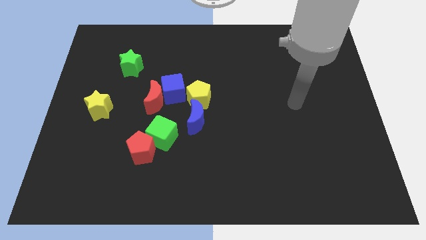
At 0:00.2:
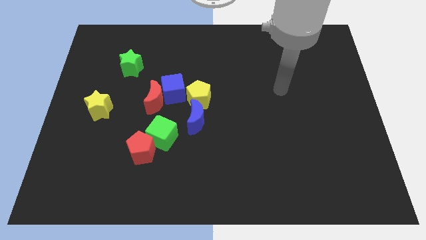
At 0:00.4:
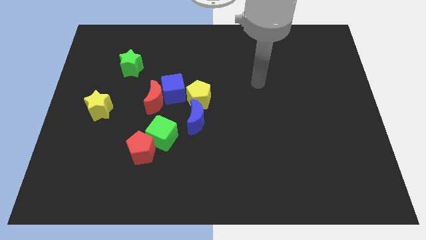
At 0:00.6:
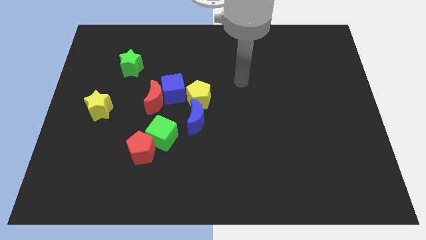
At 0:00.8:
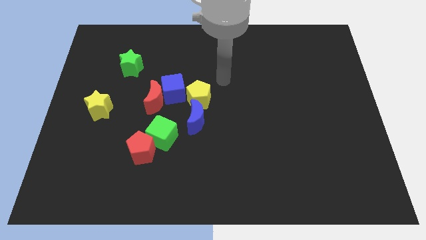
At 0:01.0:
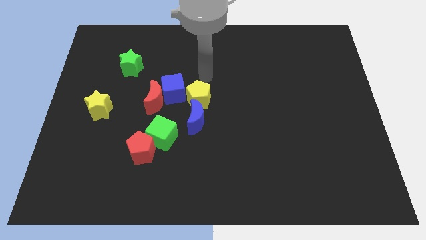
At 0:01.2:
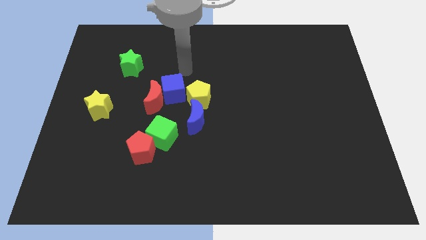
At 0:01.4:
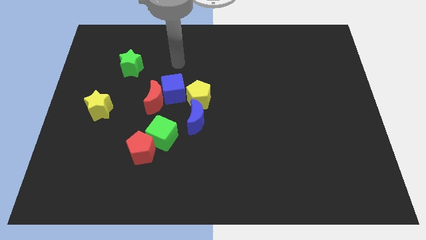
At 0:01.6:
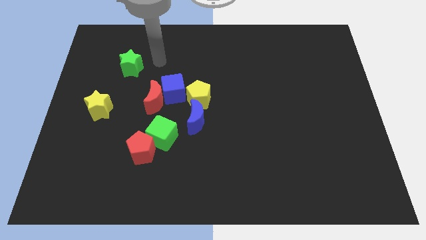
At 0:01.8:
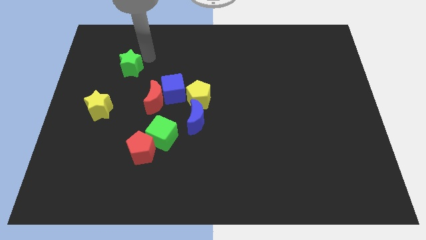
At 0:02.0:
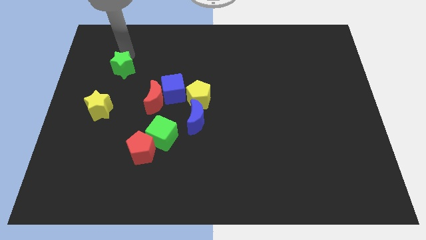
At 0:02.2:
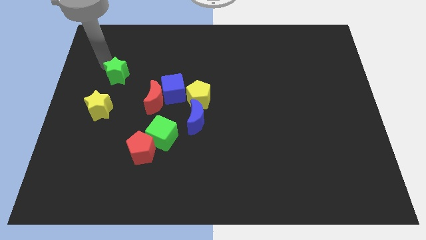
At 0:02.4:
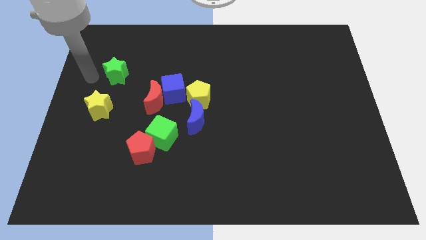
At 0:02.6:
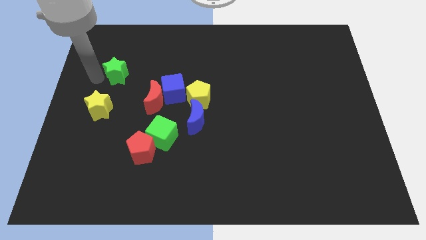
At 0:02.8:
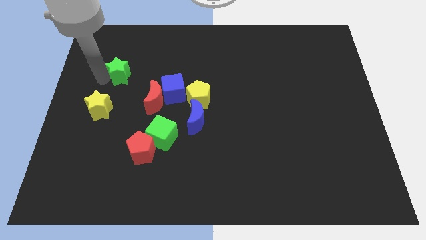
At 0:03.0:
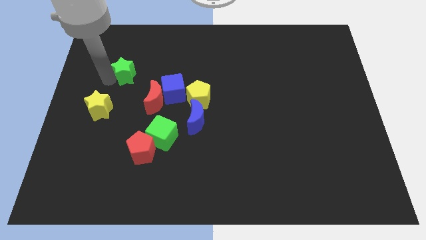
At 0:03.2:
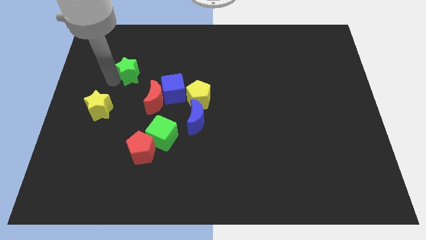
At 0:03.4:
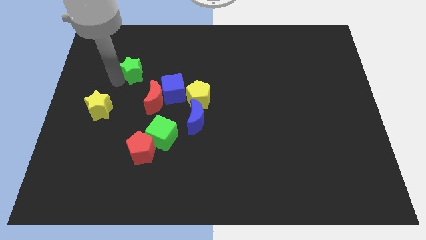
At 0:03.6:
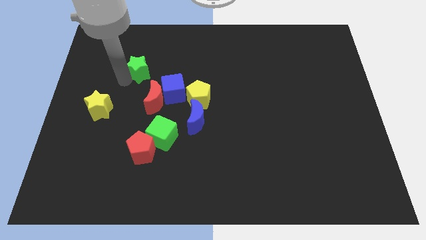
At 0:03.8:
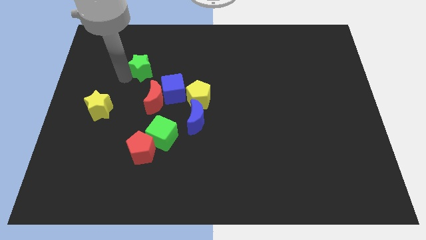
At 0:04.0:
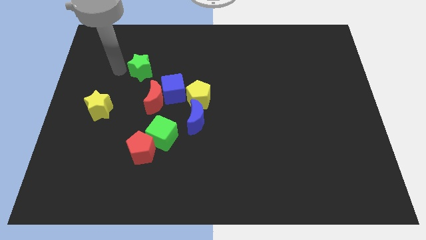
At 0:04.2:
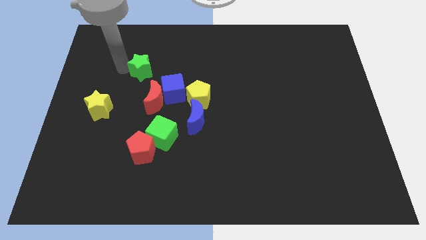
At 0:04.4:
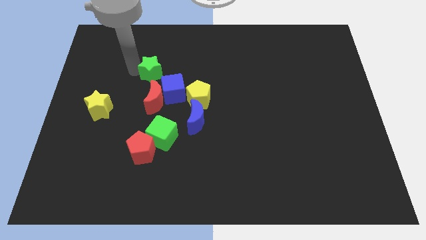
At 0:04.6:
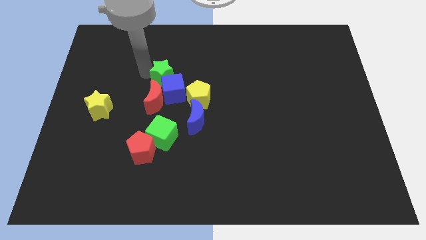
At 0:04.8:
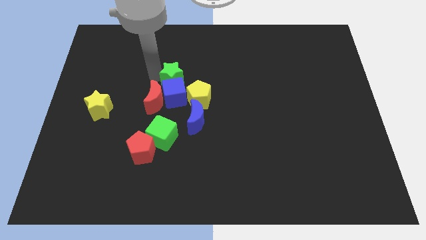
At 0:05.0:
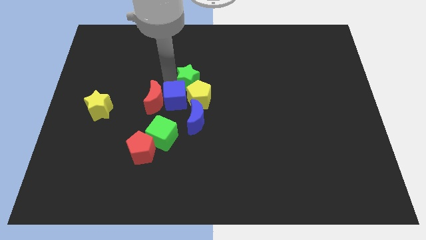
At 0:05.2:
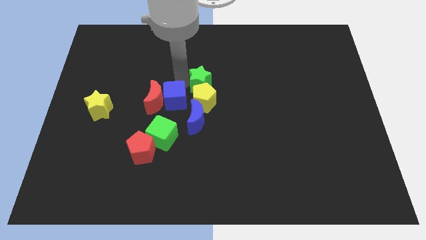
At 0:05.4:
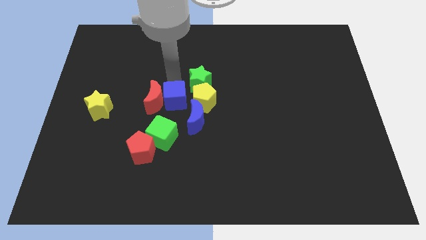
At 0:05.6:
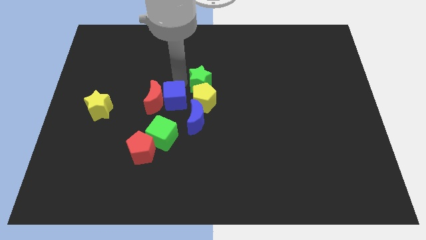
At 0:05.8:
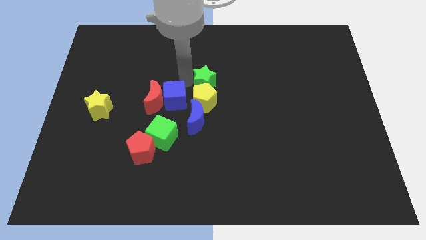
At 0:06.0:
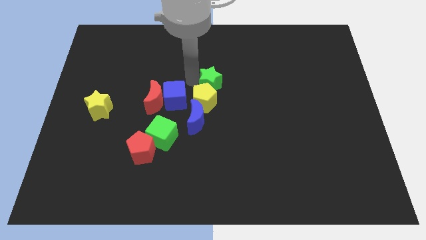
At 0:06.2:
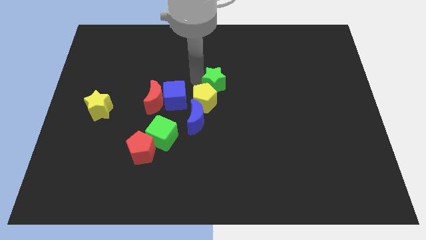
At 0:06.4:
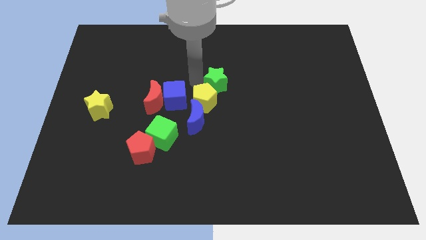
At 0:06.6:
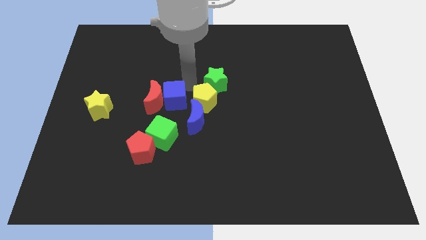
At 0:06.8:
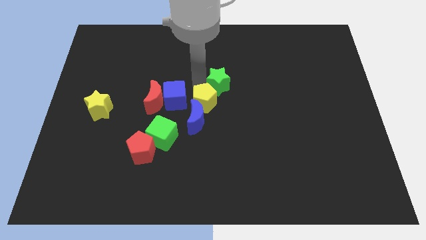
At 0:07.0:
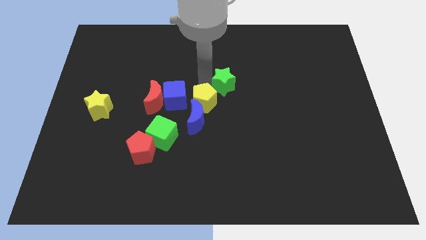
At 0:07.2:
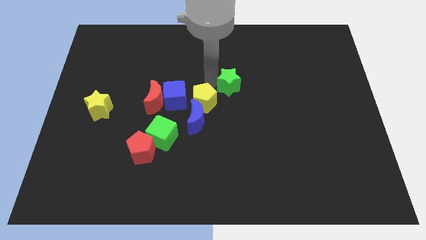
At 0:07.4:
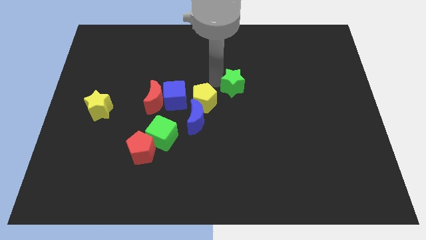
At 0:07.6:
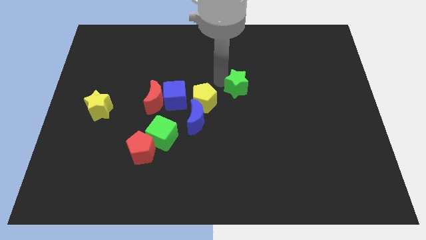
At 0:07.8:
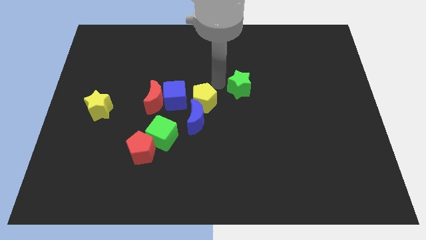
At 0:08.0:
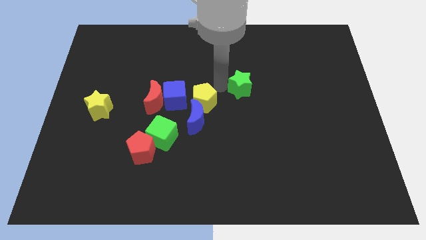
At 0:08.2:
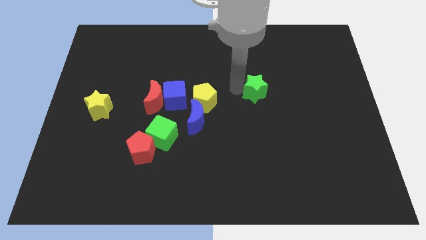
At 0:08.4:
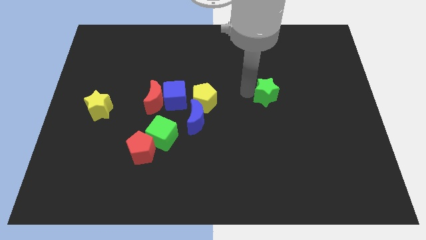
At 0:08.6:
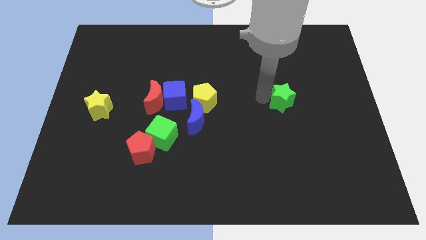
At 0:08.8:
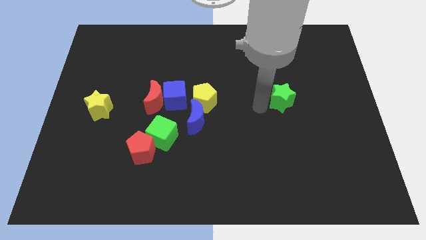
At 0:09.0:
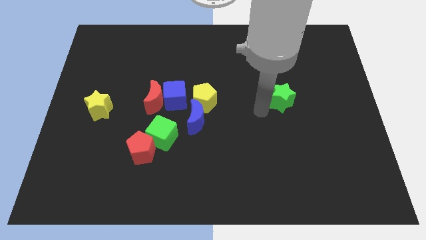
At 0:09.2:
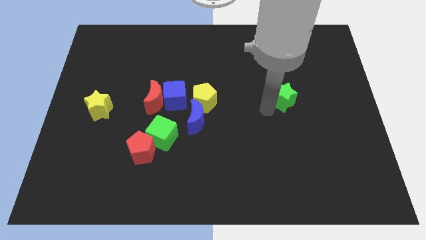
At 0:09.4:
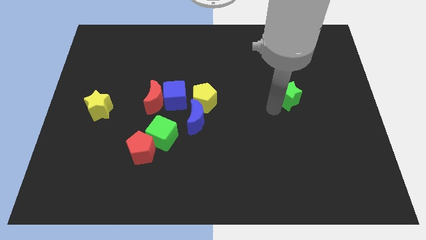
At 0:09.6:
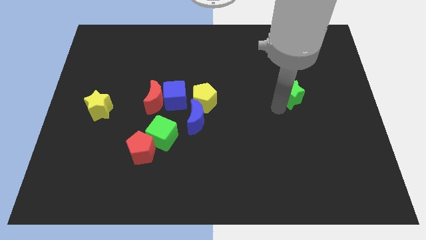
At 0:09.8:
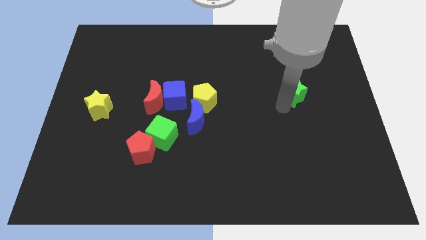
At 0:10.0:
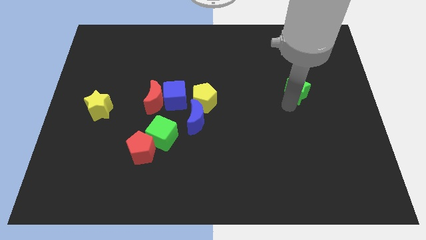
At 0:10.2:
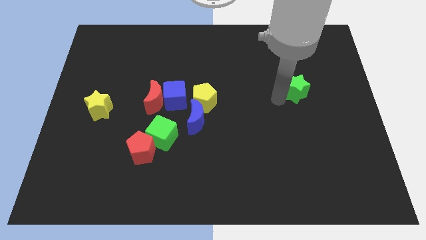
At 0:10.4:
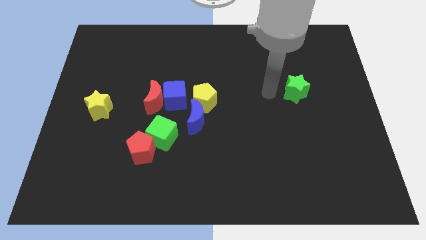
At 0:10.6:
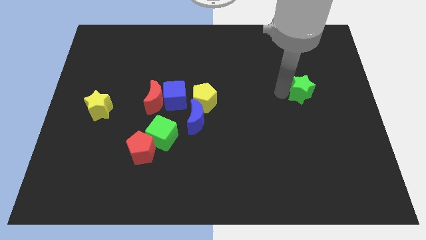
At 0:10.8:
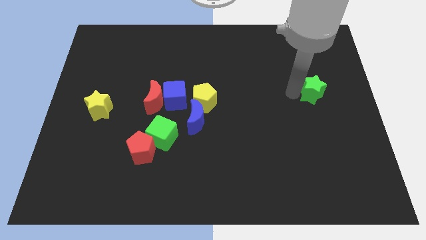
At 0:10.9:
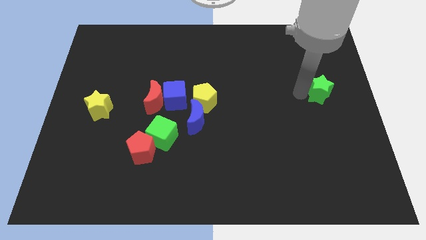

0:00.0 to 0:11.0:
push the green star to the right side

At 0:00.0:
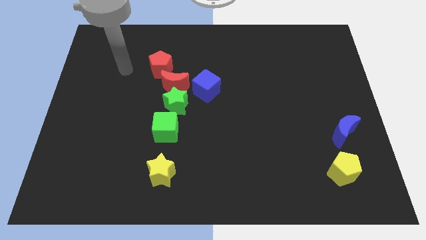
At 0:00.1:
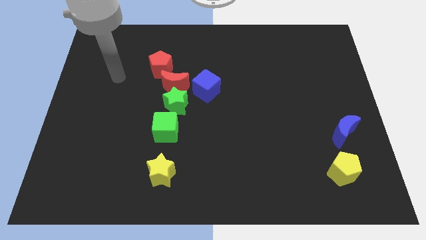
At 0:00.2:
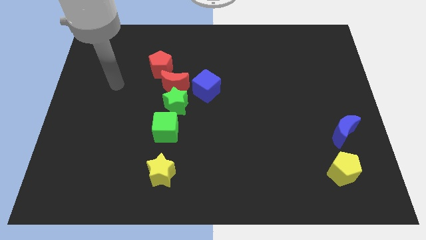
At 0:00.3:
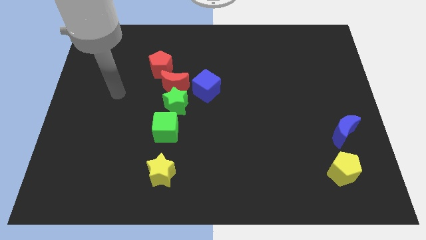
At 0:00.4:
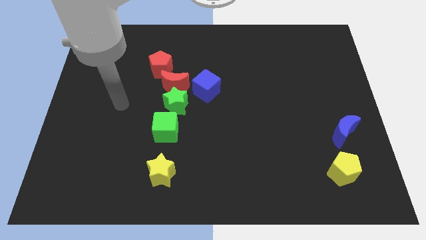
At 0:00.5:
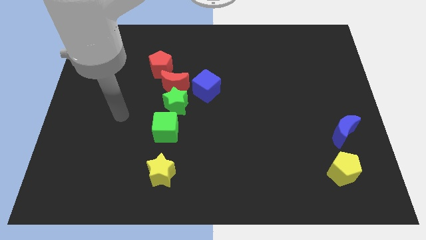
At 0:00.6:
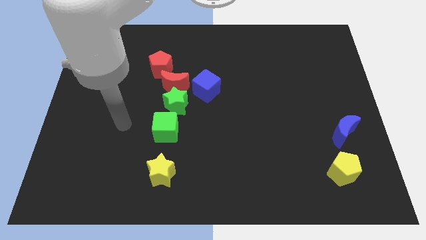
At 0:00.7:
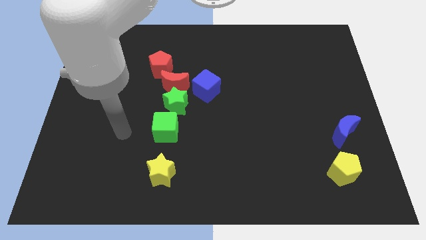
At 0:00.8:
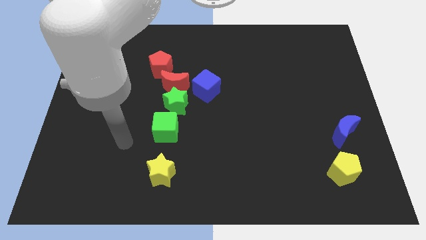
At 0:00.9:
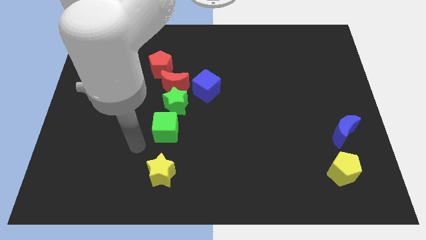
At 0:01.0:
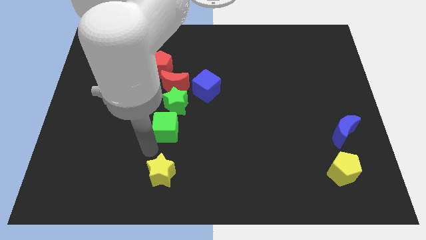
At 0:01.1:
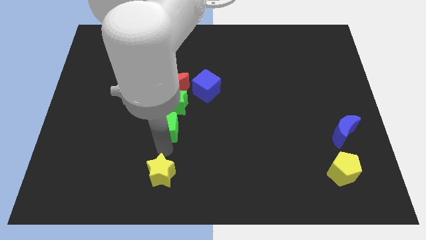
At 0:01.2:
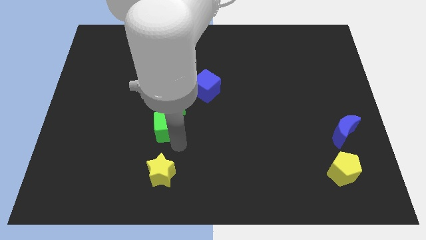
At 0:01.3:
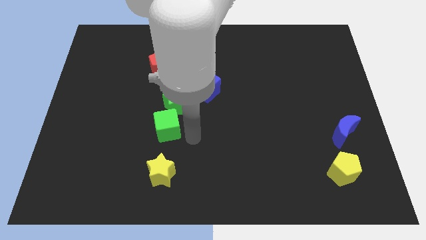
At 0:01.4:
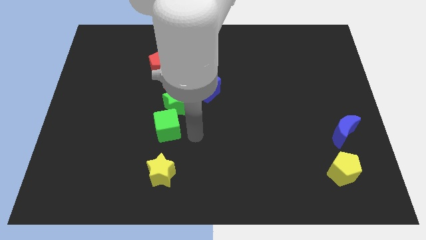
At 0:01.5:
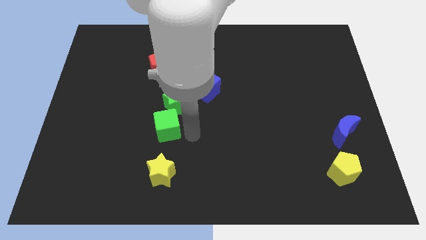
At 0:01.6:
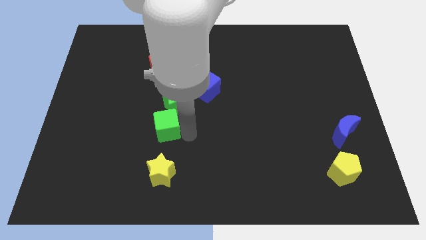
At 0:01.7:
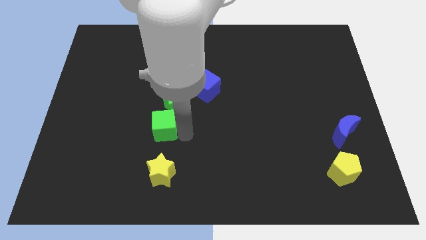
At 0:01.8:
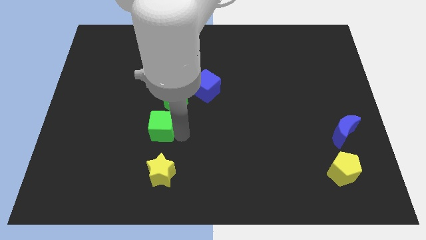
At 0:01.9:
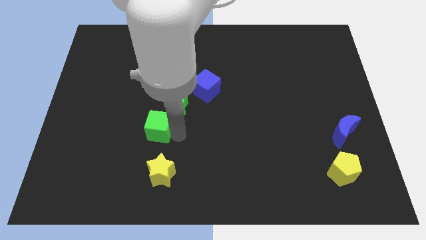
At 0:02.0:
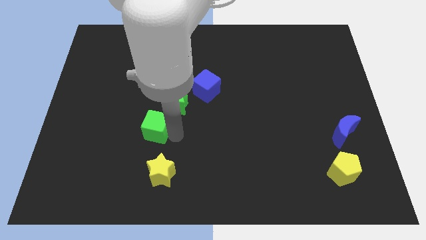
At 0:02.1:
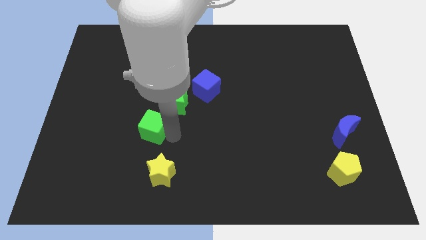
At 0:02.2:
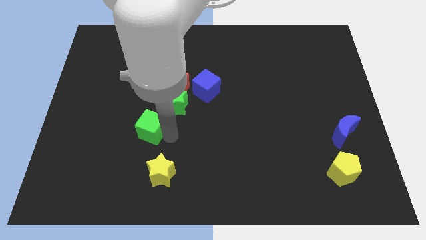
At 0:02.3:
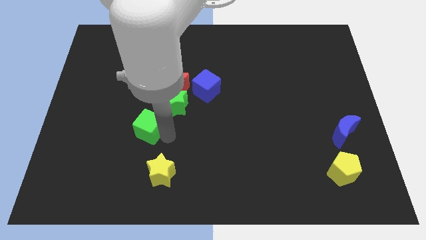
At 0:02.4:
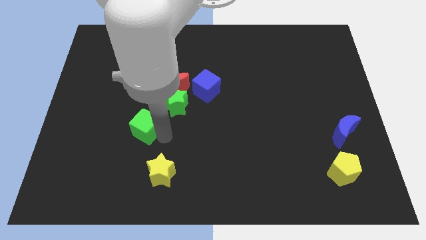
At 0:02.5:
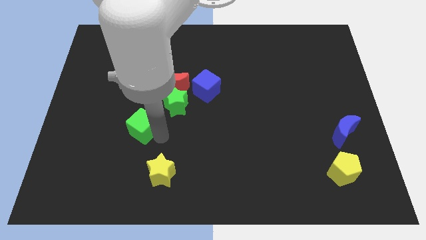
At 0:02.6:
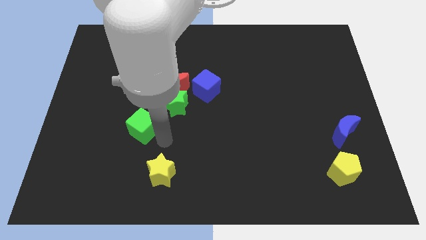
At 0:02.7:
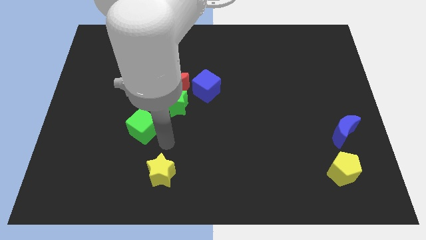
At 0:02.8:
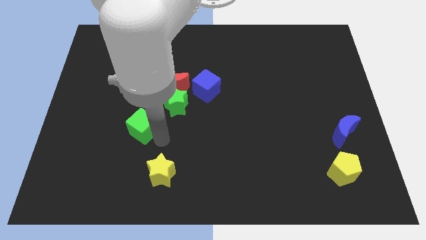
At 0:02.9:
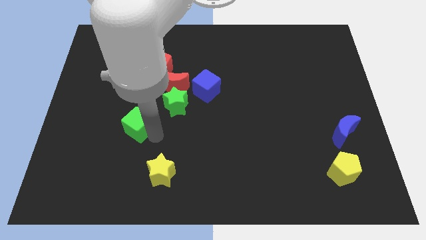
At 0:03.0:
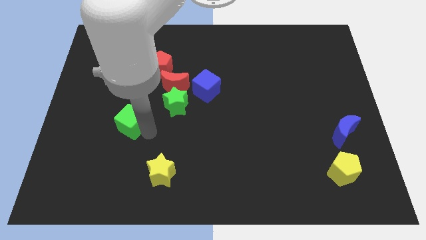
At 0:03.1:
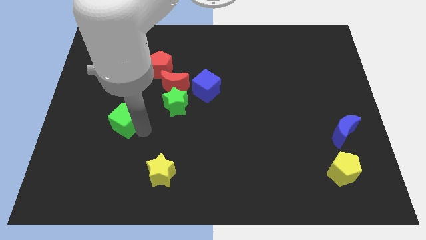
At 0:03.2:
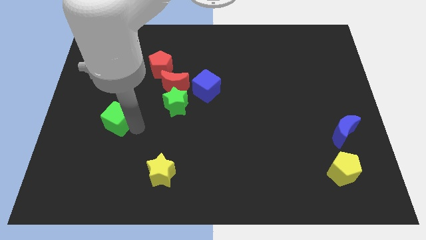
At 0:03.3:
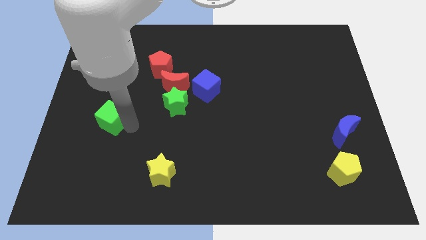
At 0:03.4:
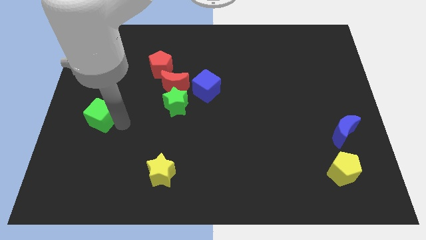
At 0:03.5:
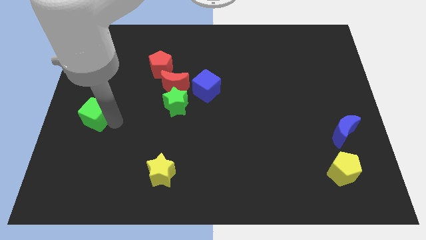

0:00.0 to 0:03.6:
slide the green cube to the center left
